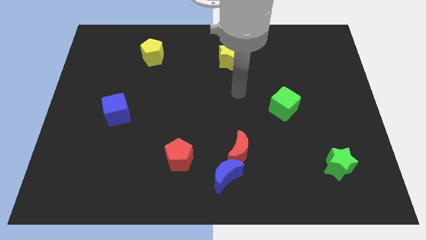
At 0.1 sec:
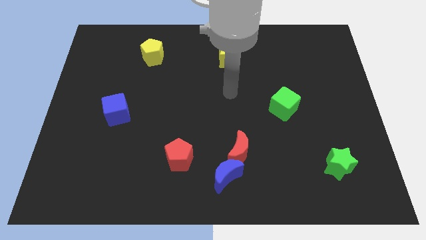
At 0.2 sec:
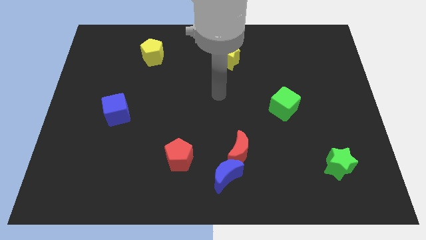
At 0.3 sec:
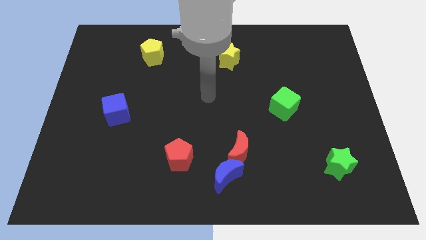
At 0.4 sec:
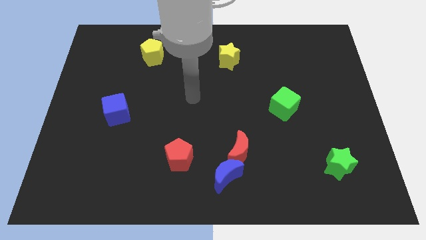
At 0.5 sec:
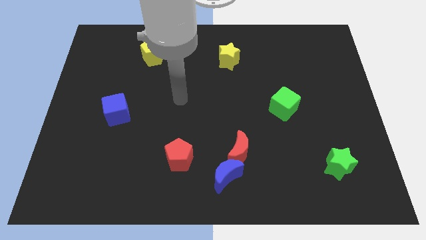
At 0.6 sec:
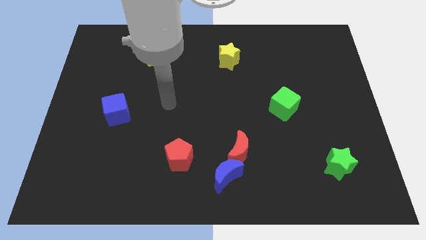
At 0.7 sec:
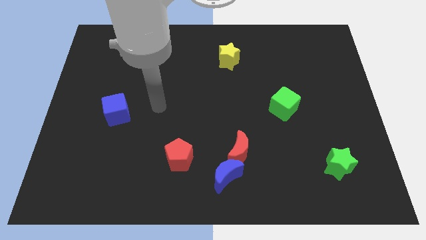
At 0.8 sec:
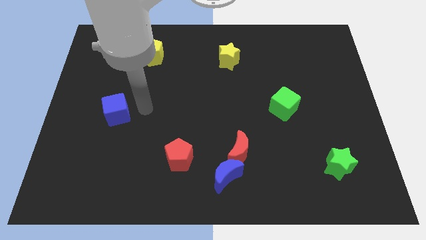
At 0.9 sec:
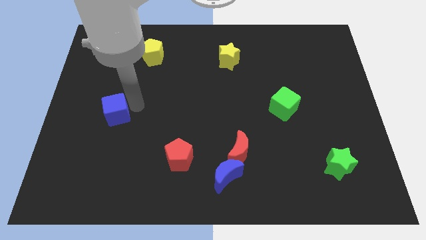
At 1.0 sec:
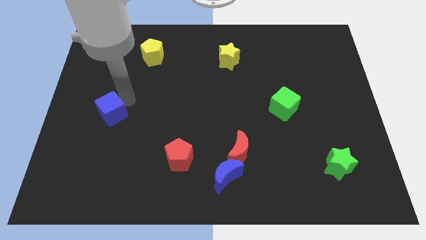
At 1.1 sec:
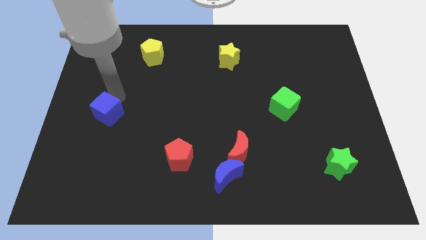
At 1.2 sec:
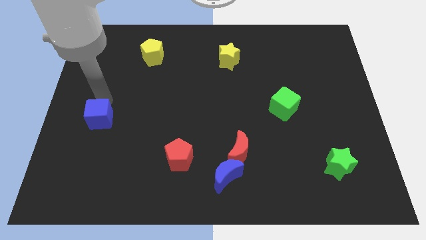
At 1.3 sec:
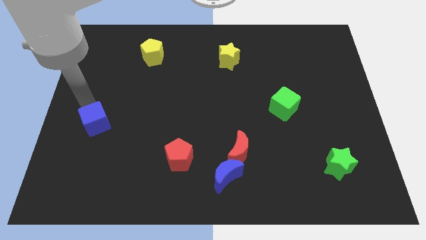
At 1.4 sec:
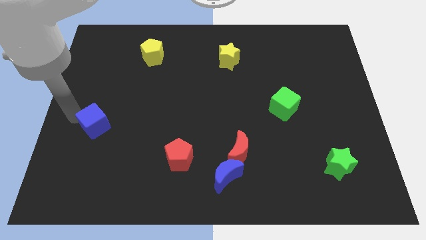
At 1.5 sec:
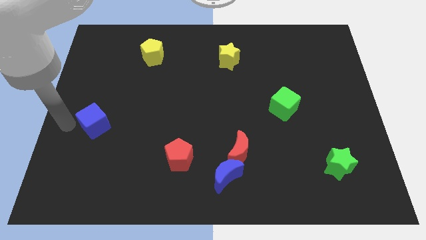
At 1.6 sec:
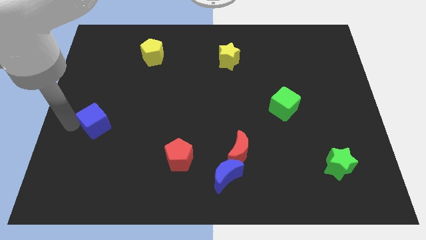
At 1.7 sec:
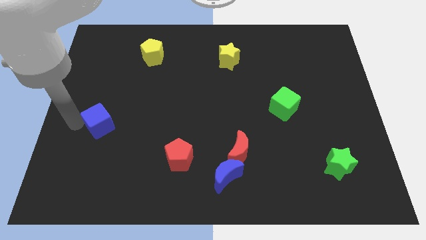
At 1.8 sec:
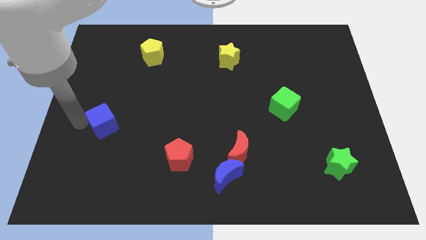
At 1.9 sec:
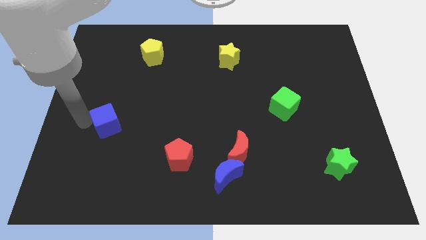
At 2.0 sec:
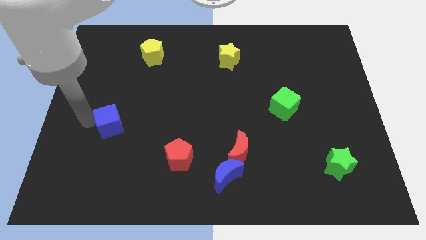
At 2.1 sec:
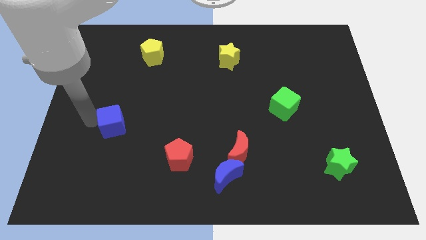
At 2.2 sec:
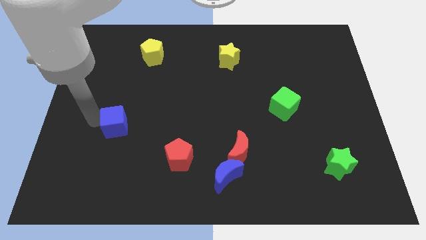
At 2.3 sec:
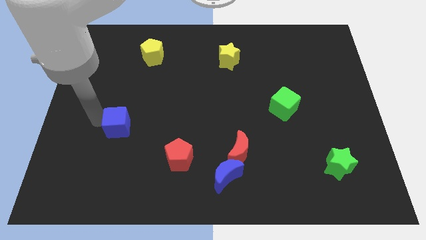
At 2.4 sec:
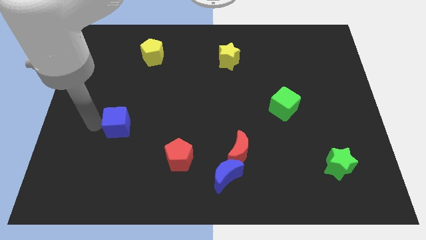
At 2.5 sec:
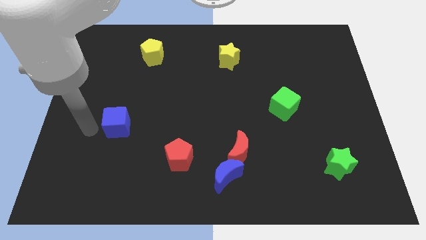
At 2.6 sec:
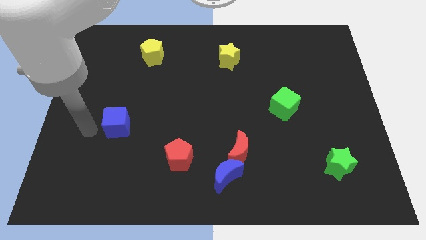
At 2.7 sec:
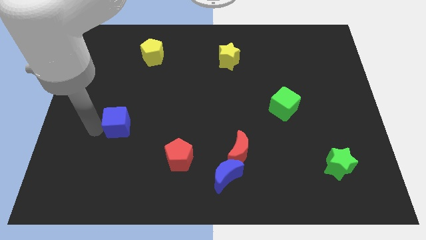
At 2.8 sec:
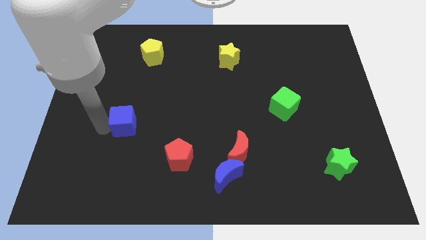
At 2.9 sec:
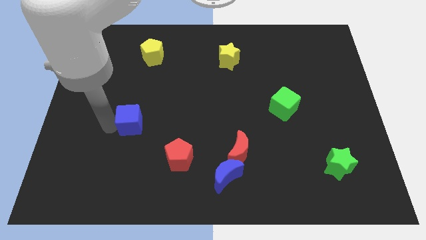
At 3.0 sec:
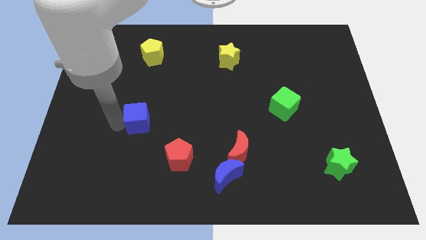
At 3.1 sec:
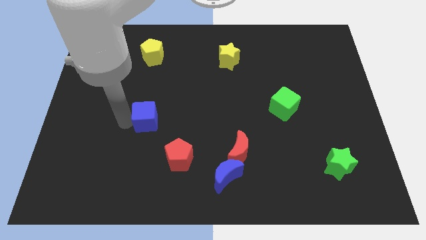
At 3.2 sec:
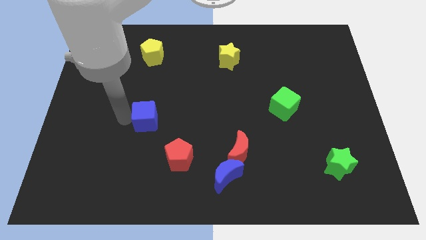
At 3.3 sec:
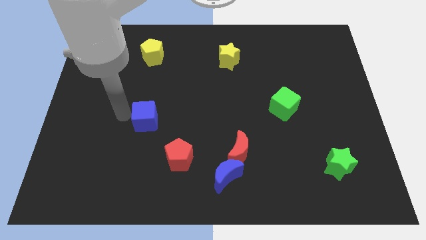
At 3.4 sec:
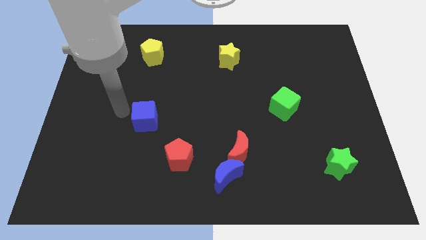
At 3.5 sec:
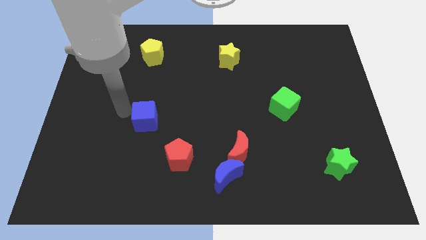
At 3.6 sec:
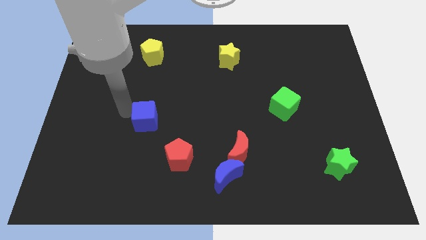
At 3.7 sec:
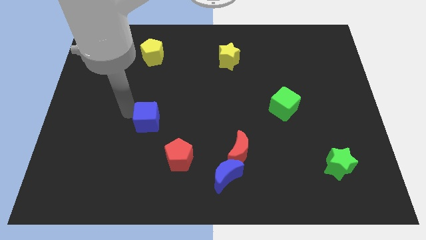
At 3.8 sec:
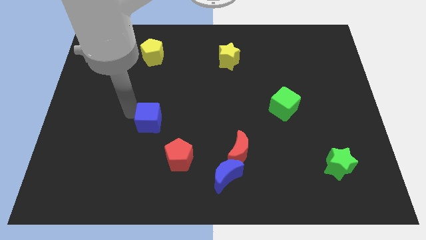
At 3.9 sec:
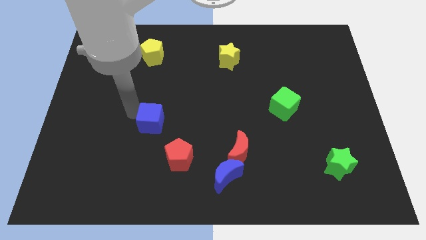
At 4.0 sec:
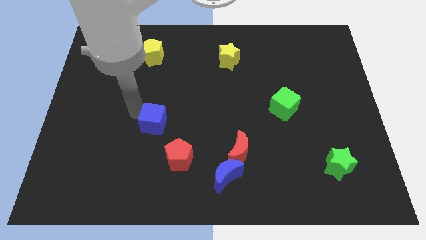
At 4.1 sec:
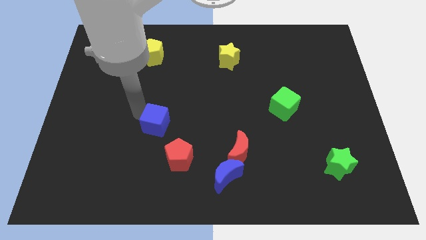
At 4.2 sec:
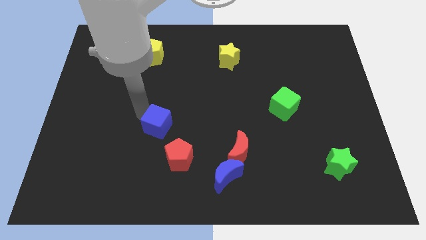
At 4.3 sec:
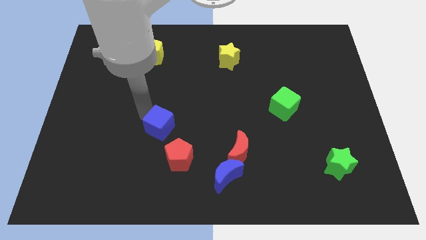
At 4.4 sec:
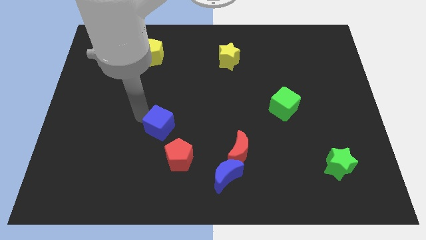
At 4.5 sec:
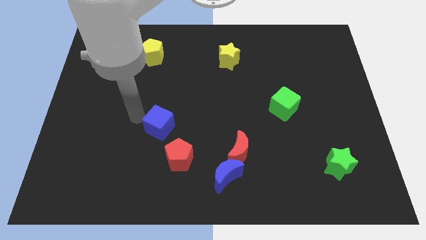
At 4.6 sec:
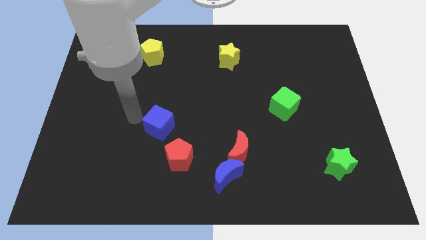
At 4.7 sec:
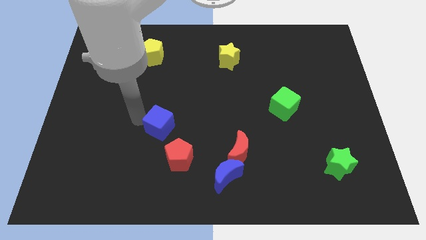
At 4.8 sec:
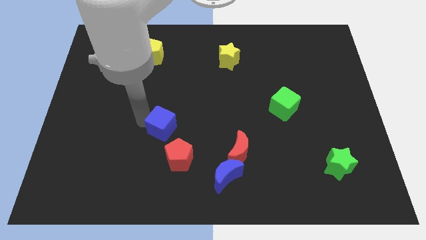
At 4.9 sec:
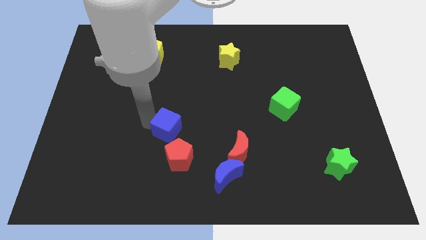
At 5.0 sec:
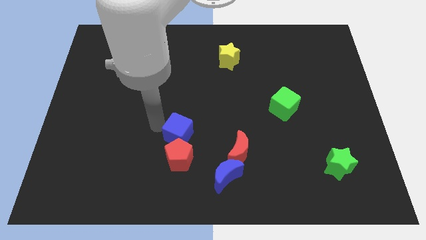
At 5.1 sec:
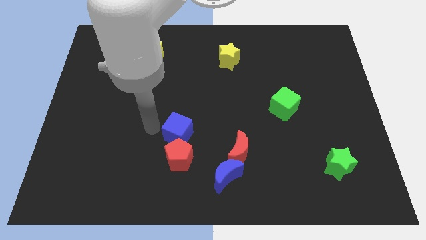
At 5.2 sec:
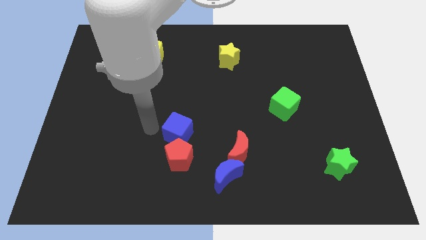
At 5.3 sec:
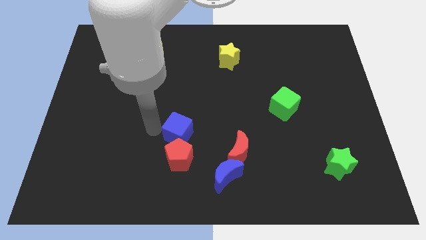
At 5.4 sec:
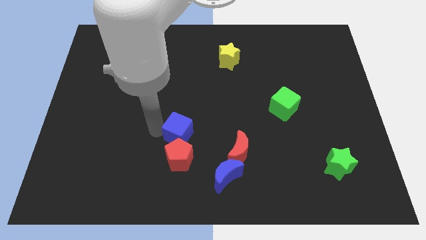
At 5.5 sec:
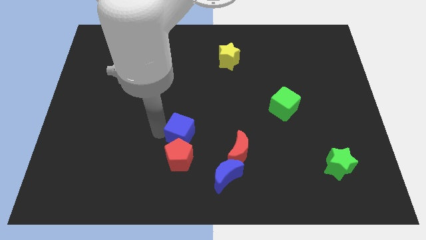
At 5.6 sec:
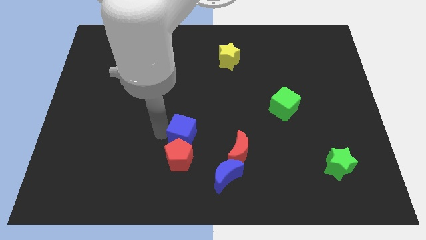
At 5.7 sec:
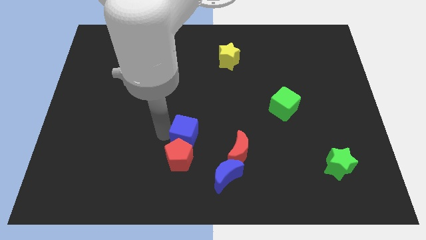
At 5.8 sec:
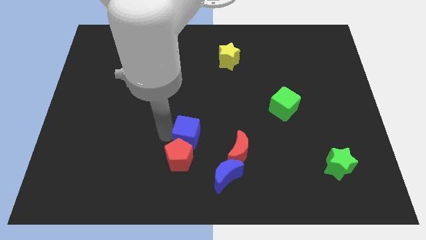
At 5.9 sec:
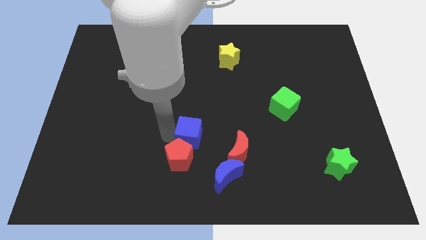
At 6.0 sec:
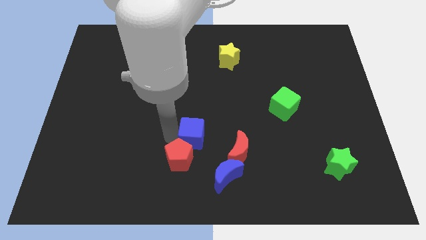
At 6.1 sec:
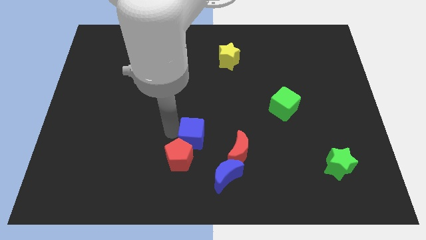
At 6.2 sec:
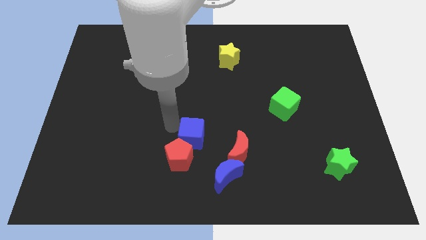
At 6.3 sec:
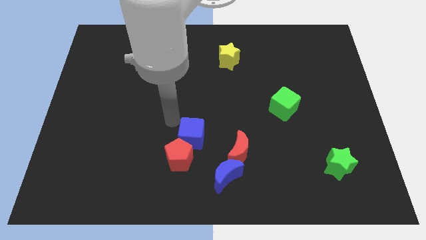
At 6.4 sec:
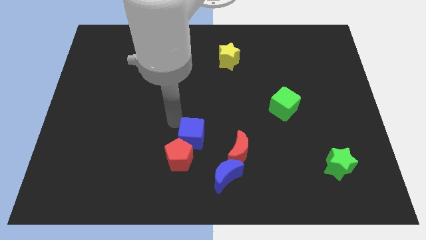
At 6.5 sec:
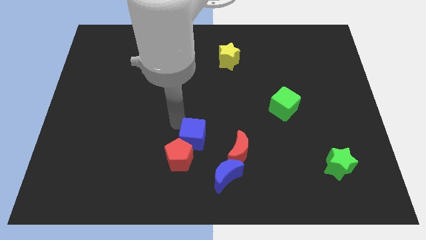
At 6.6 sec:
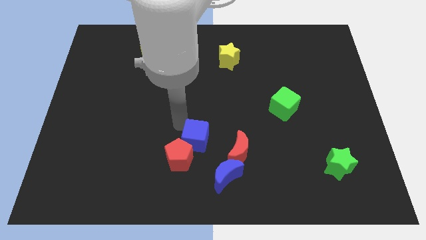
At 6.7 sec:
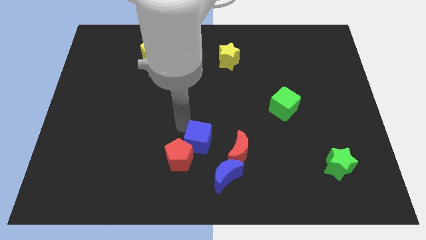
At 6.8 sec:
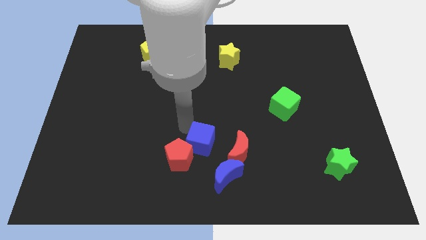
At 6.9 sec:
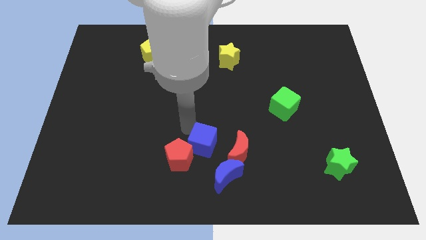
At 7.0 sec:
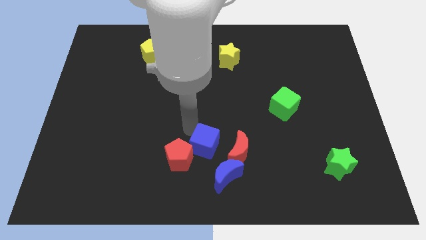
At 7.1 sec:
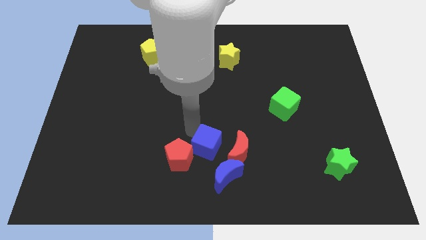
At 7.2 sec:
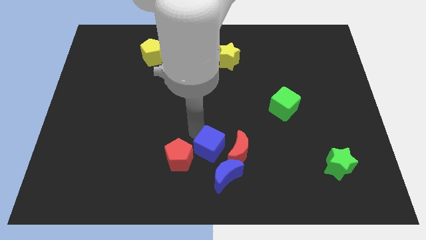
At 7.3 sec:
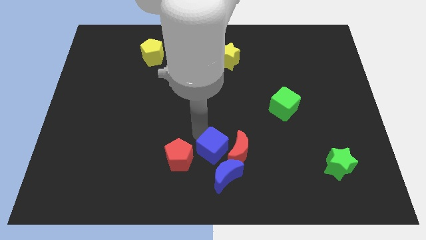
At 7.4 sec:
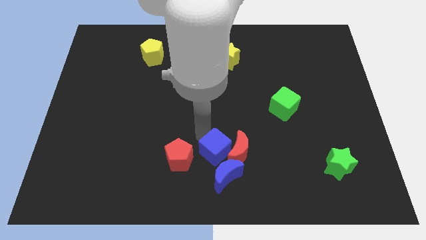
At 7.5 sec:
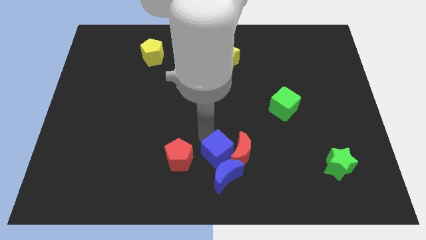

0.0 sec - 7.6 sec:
put the blue cube close to the blue moon
